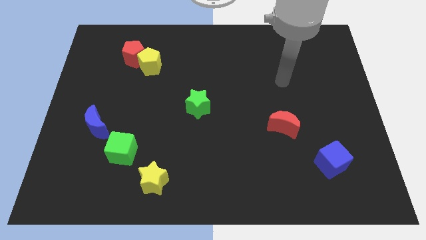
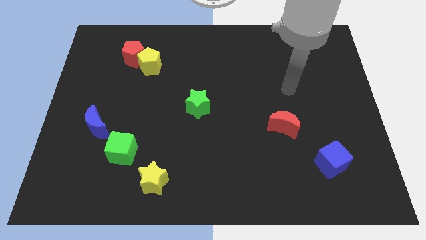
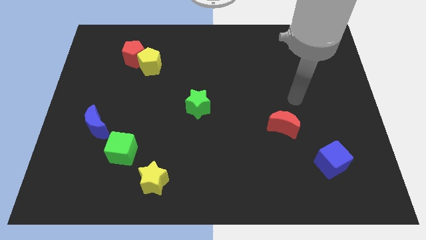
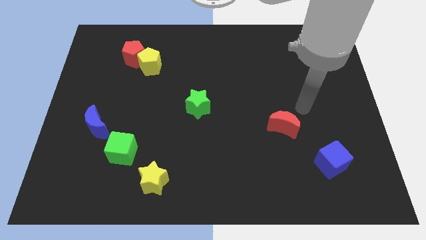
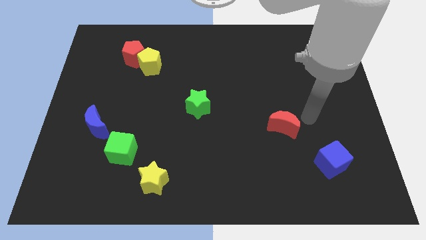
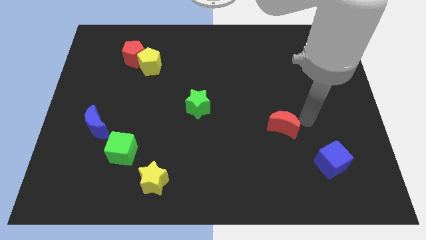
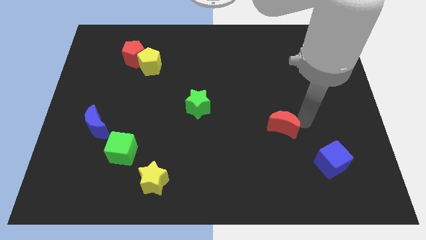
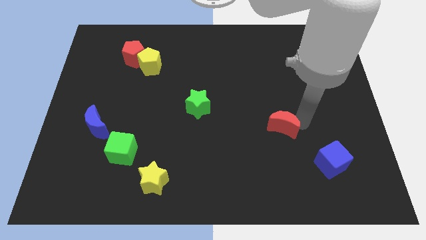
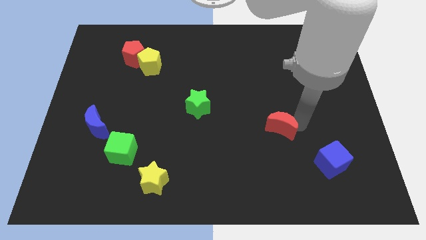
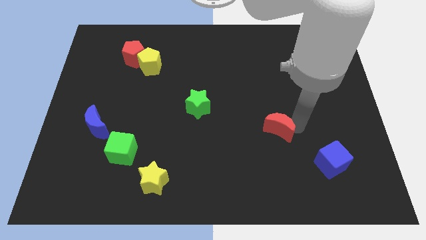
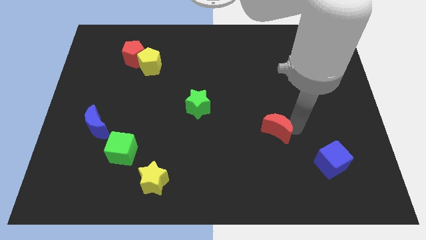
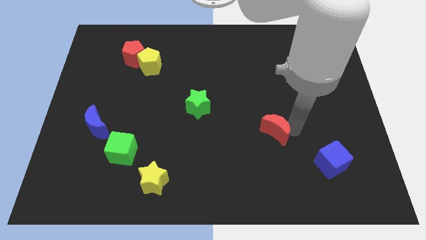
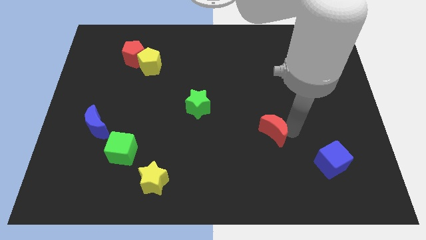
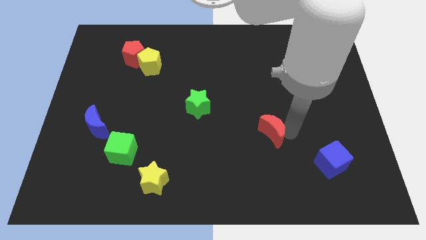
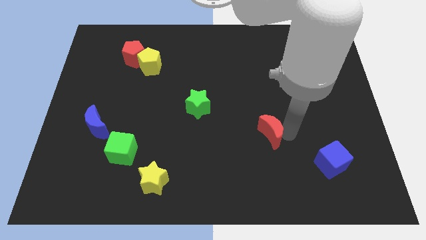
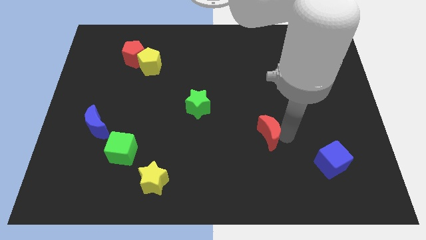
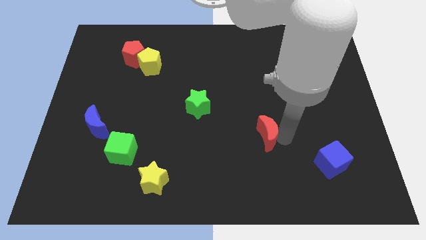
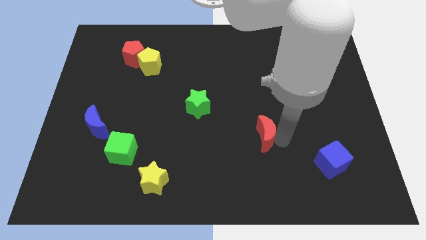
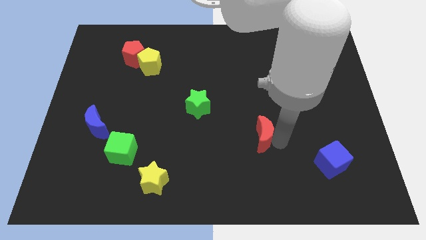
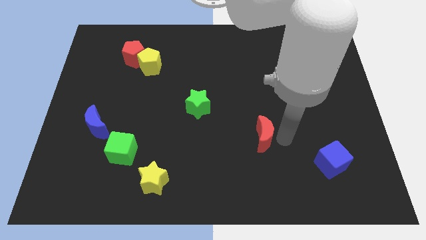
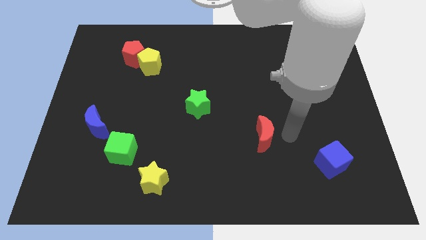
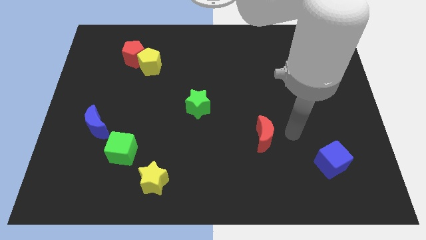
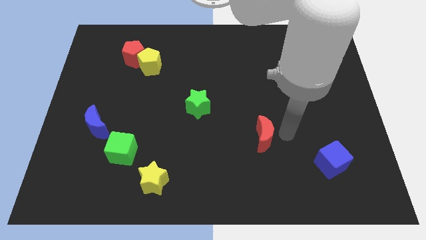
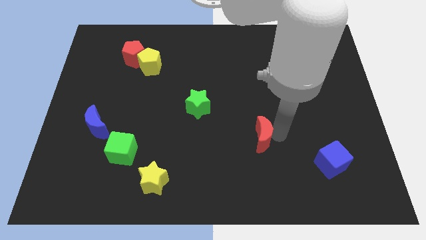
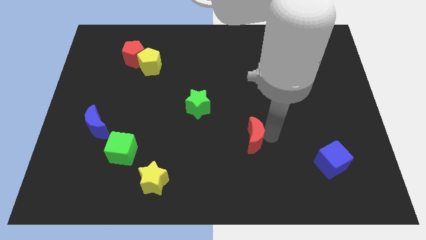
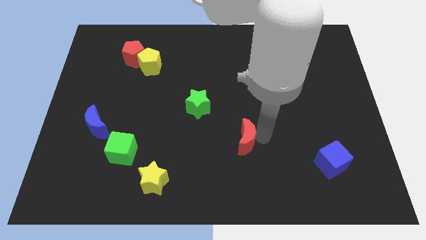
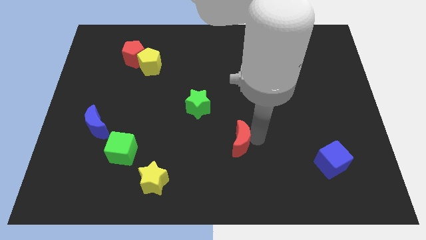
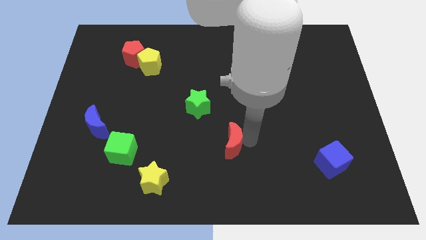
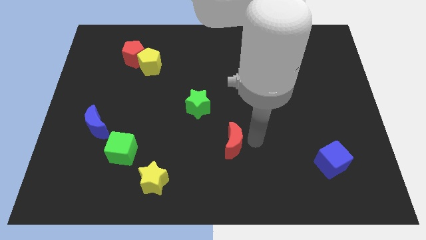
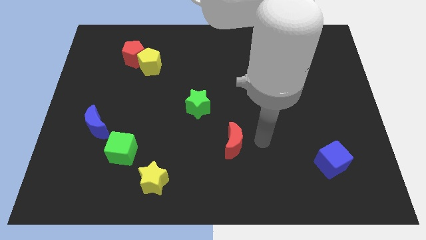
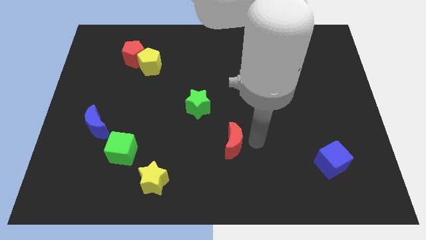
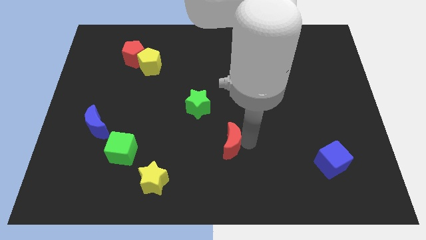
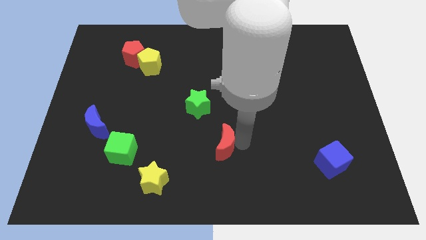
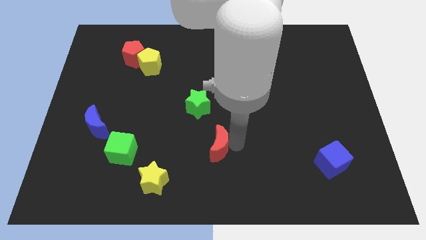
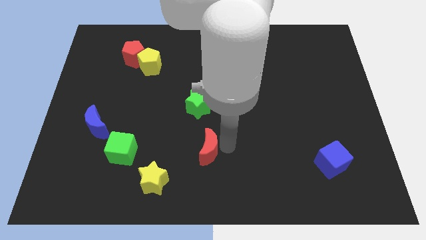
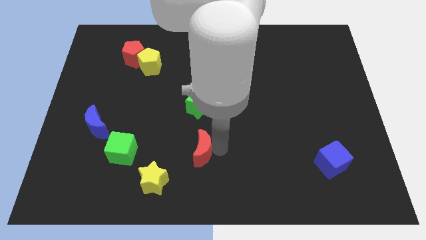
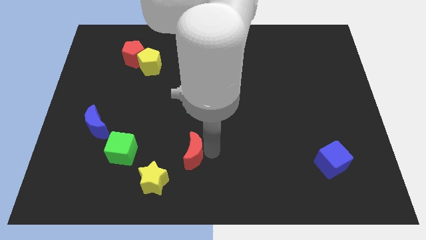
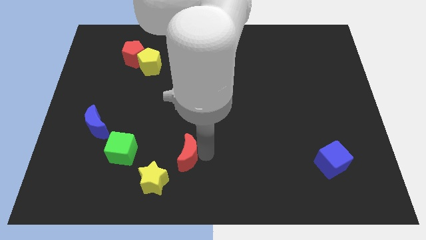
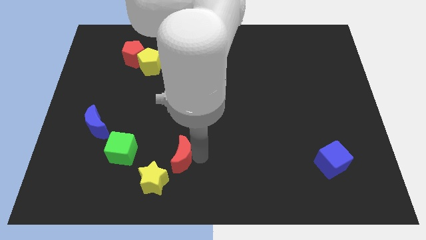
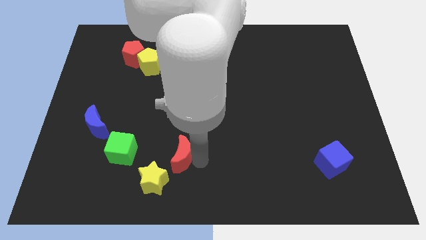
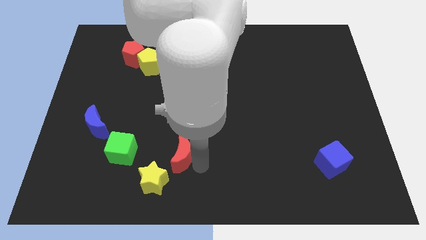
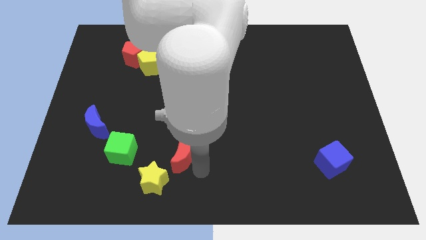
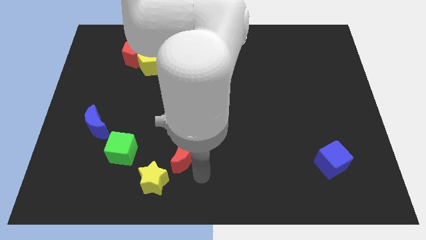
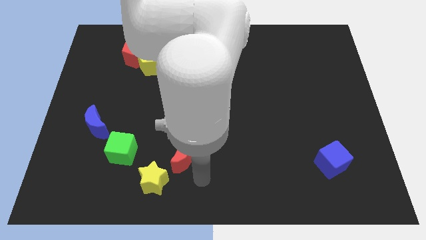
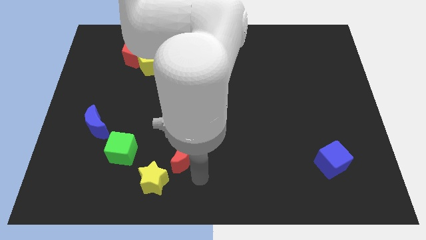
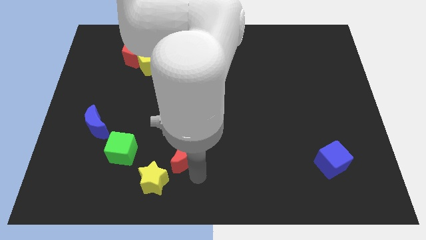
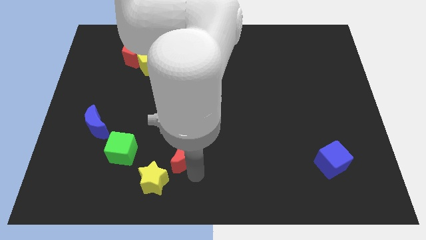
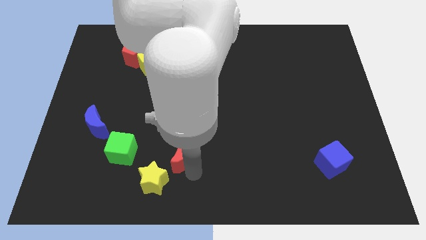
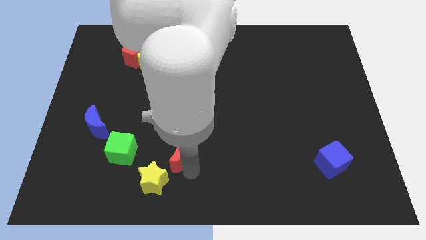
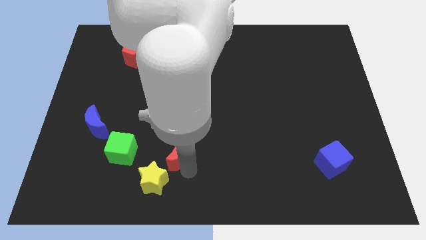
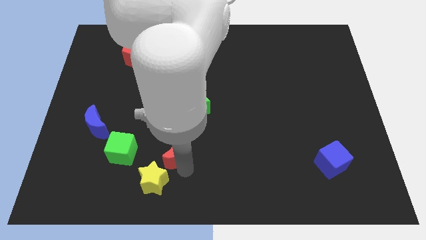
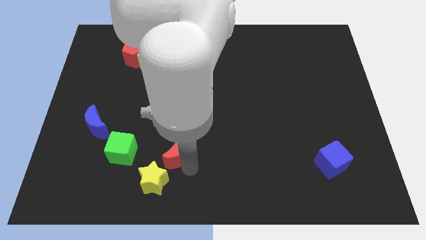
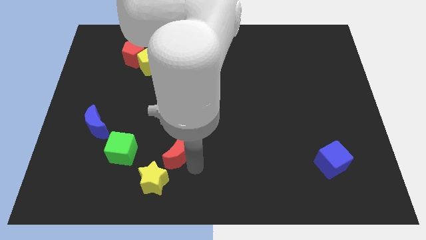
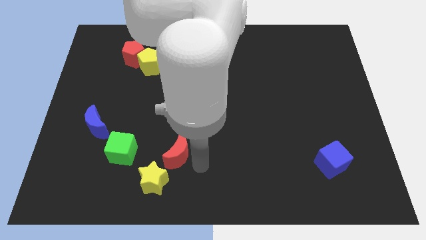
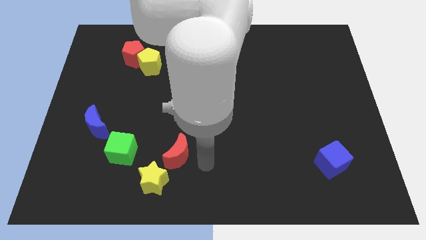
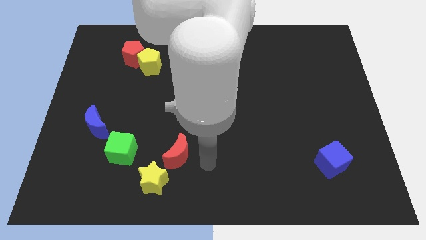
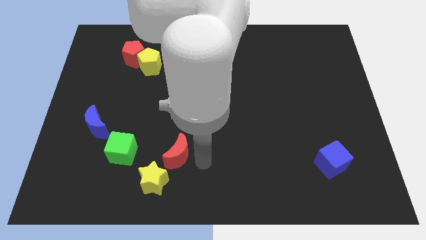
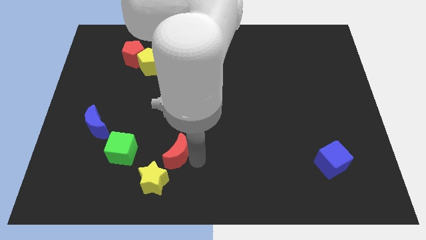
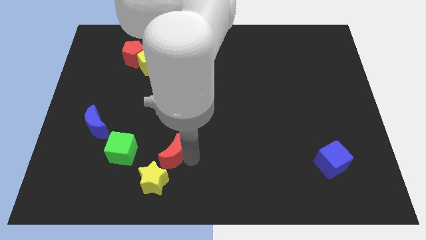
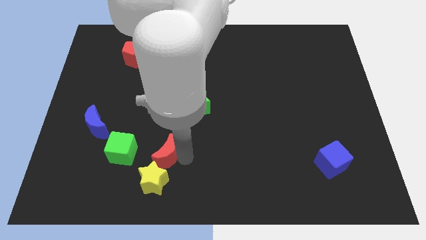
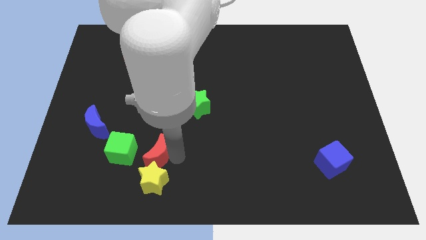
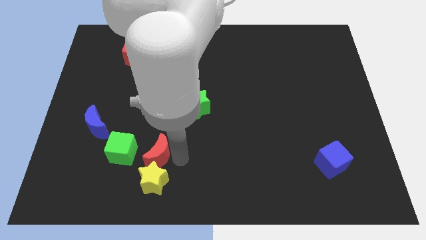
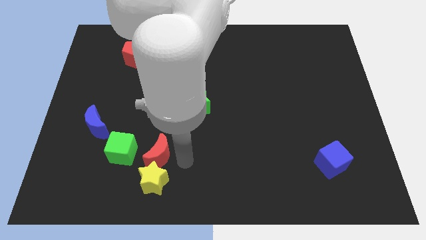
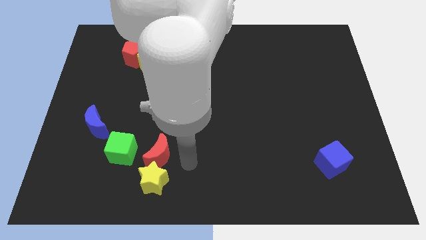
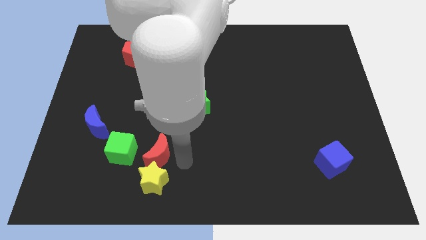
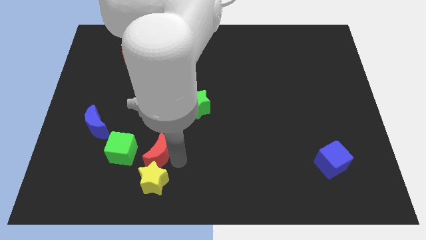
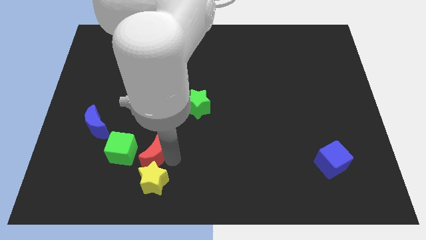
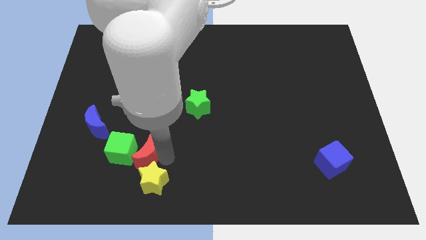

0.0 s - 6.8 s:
move the red moon next to the green cube

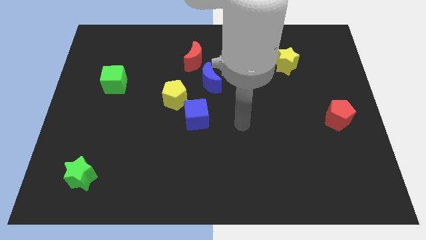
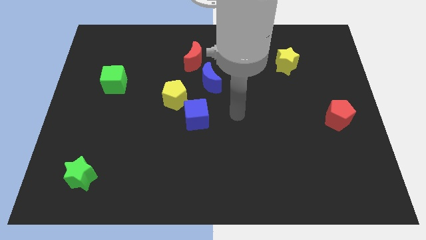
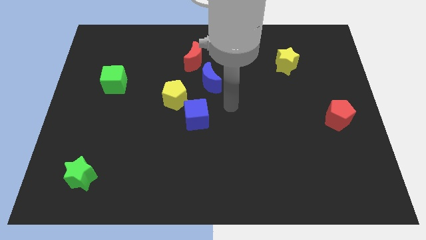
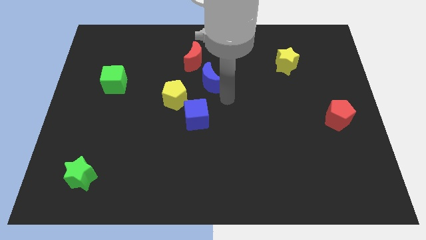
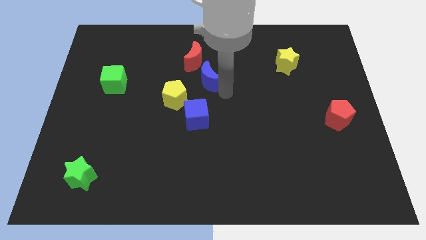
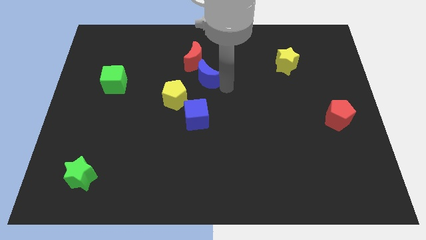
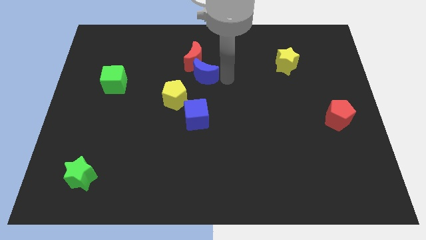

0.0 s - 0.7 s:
slide the red moon close to the blue moon
